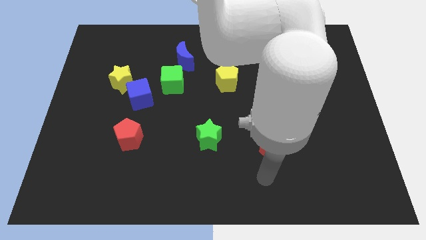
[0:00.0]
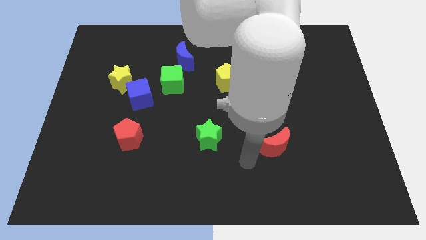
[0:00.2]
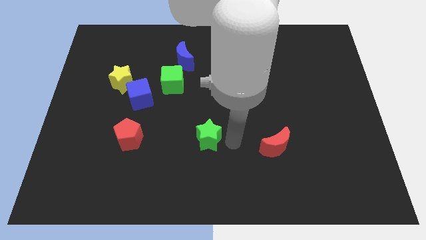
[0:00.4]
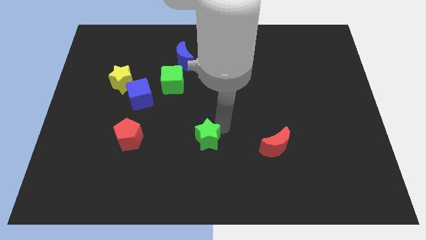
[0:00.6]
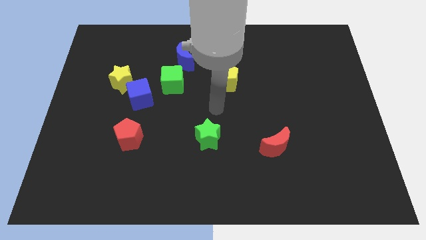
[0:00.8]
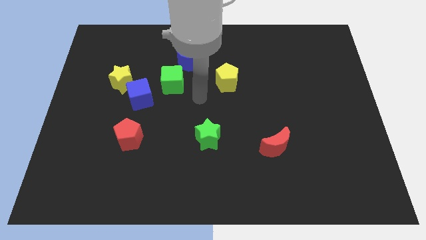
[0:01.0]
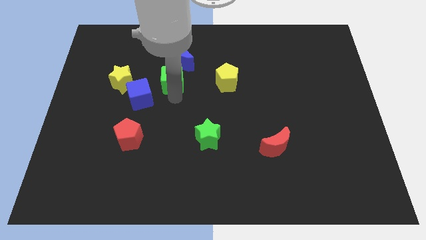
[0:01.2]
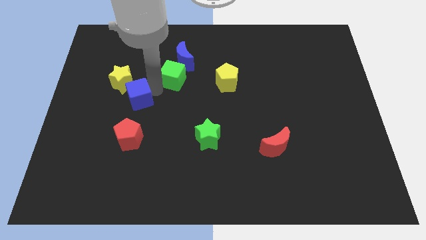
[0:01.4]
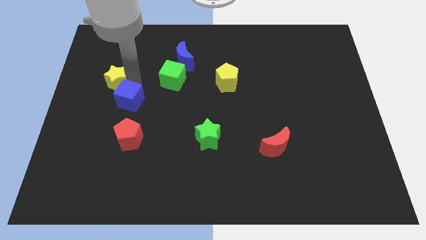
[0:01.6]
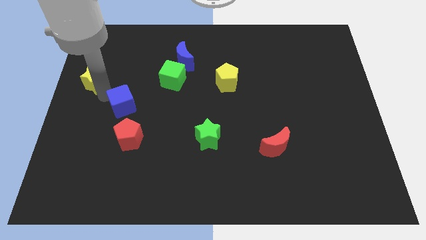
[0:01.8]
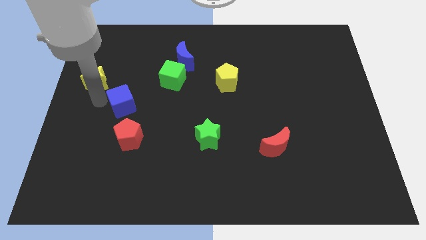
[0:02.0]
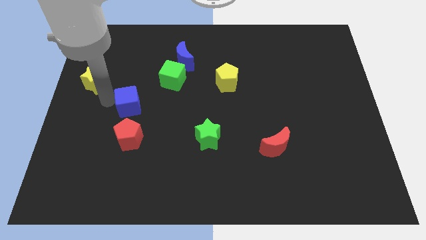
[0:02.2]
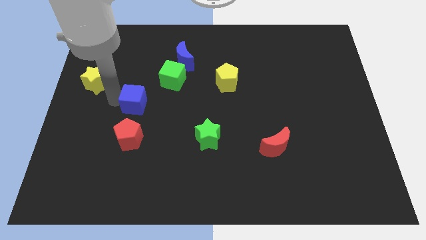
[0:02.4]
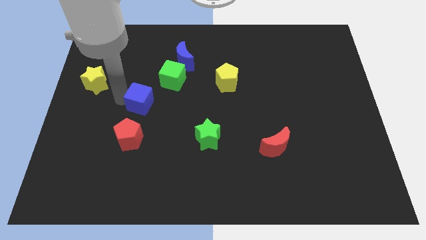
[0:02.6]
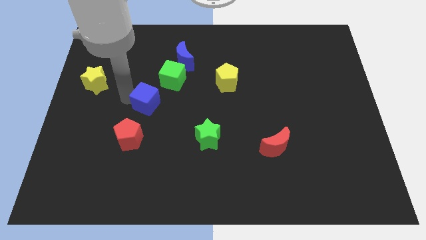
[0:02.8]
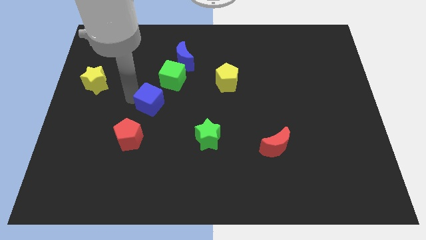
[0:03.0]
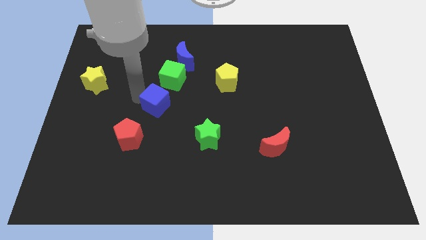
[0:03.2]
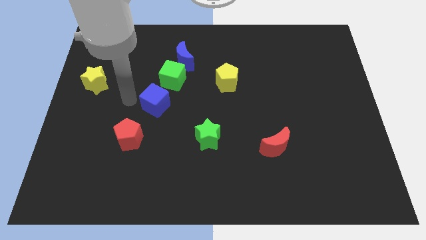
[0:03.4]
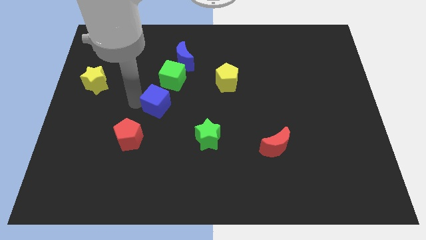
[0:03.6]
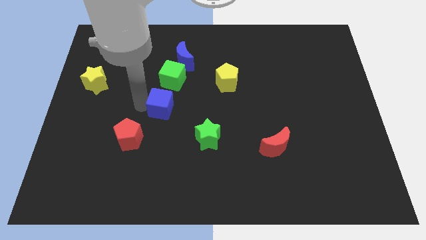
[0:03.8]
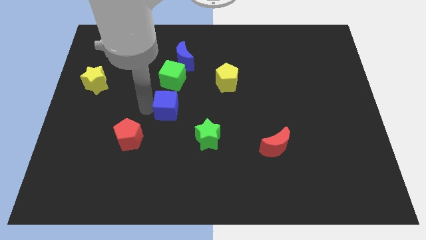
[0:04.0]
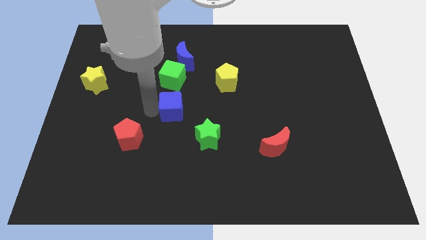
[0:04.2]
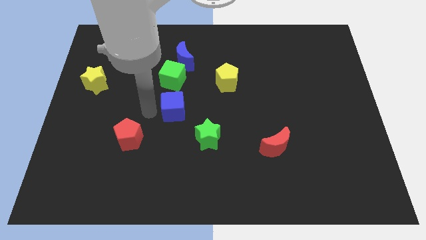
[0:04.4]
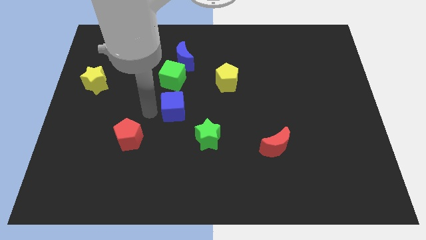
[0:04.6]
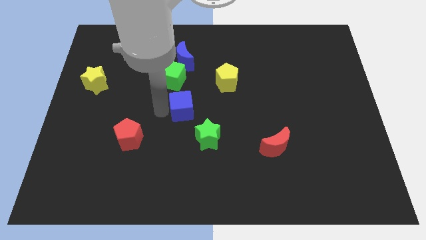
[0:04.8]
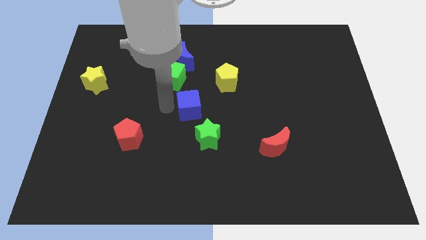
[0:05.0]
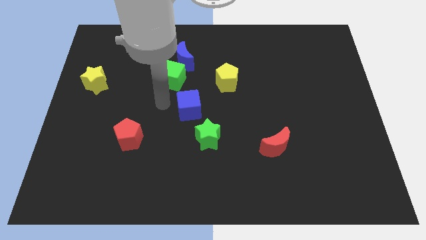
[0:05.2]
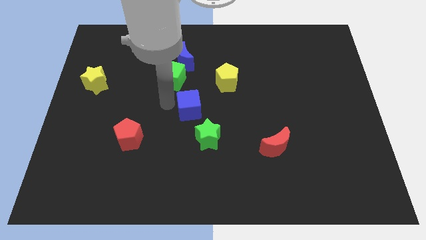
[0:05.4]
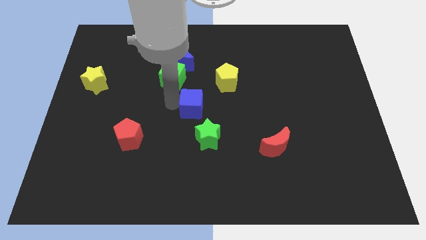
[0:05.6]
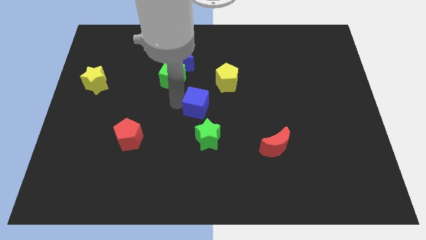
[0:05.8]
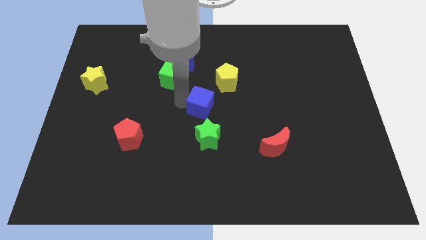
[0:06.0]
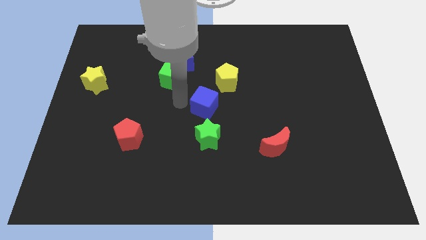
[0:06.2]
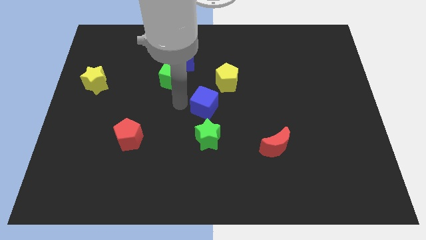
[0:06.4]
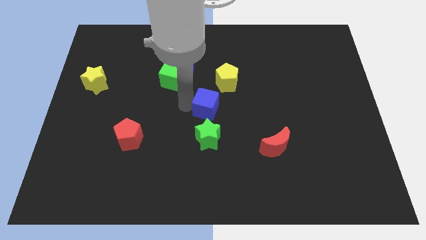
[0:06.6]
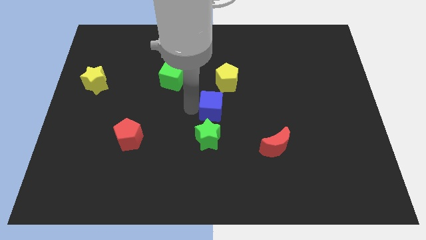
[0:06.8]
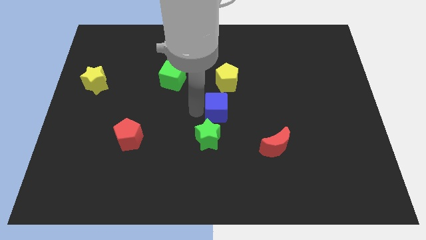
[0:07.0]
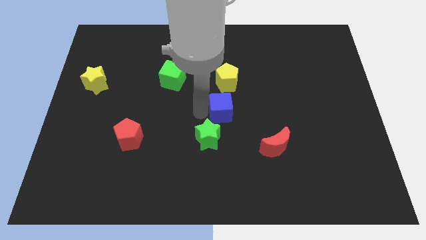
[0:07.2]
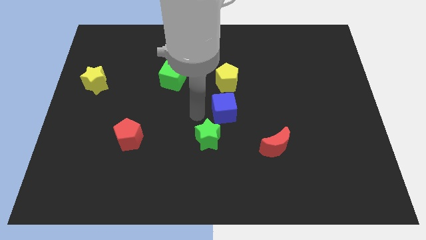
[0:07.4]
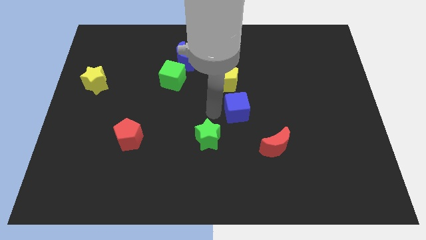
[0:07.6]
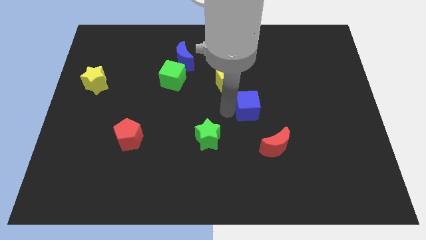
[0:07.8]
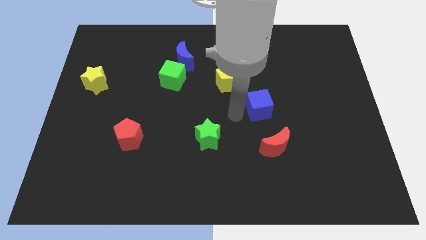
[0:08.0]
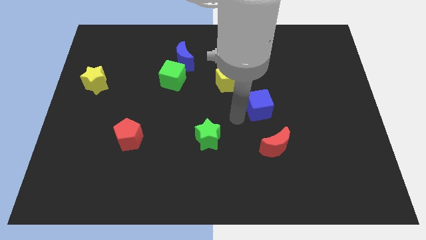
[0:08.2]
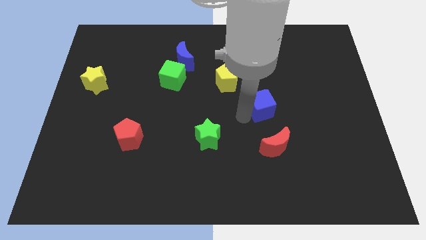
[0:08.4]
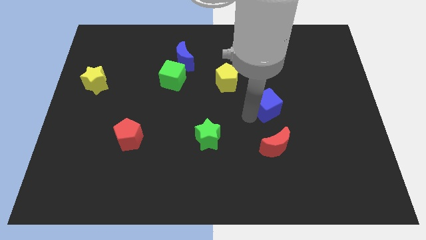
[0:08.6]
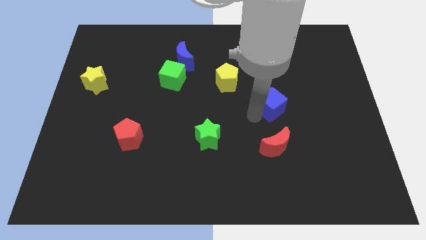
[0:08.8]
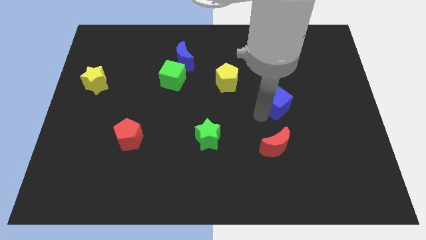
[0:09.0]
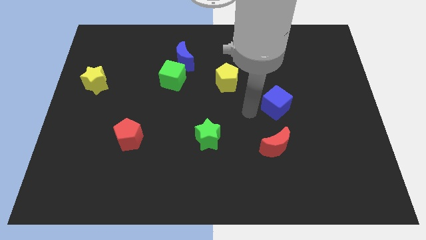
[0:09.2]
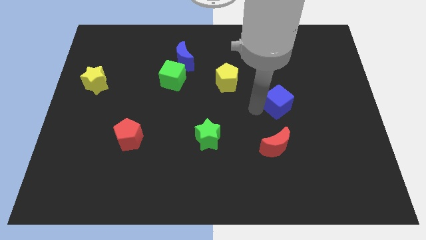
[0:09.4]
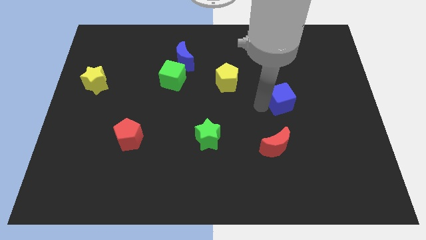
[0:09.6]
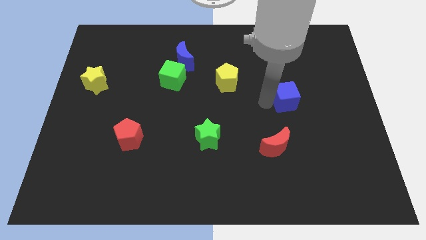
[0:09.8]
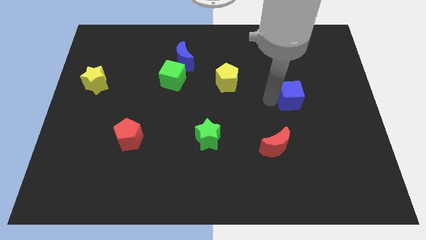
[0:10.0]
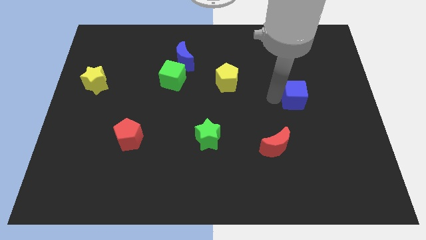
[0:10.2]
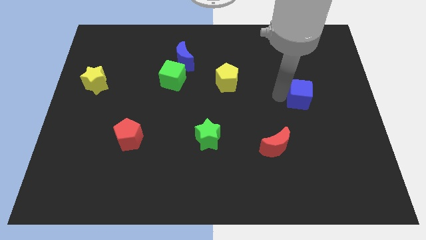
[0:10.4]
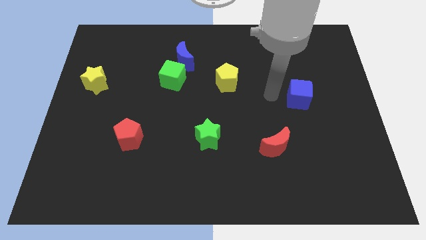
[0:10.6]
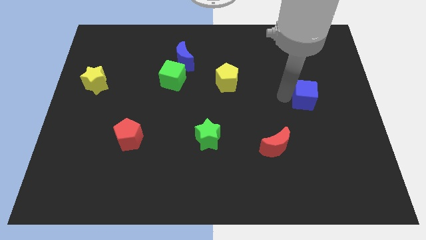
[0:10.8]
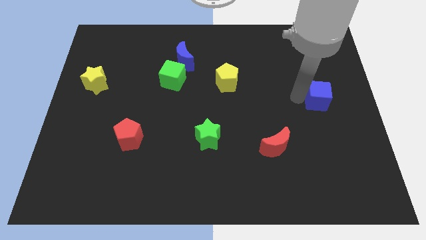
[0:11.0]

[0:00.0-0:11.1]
move the blue cube to the right side of the board

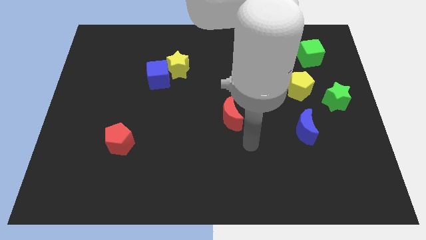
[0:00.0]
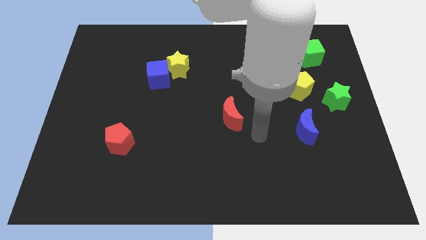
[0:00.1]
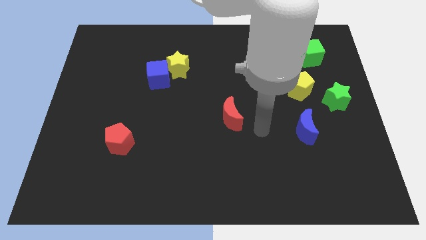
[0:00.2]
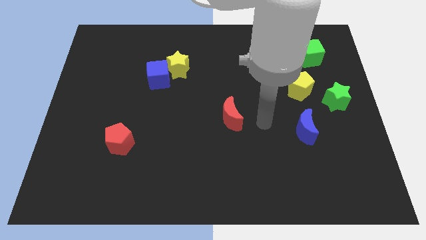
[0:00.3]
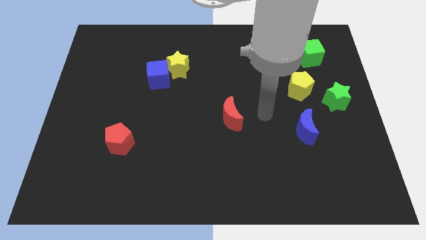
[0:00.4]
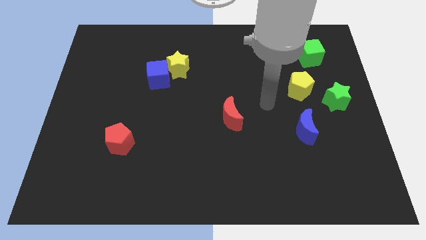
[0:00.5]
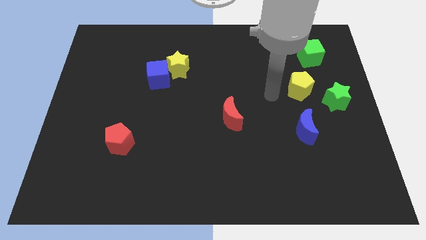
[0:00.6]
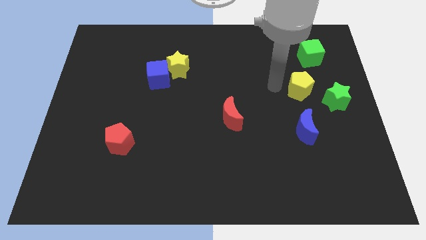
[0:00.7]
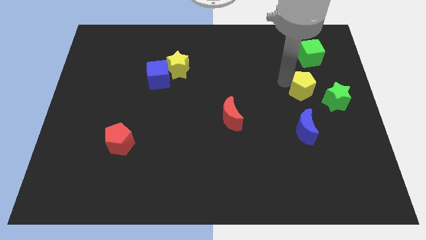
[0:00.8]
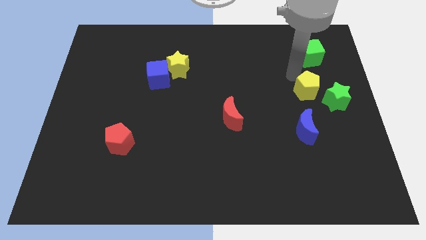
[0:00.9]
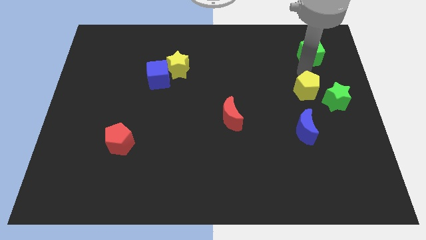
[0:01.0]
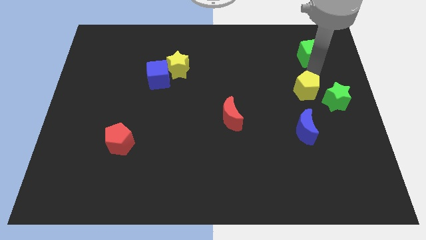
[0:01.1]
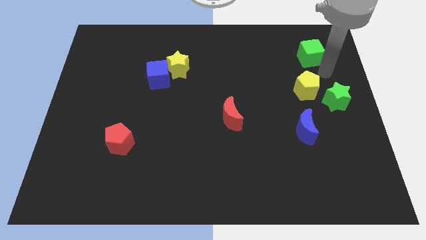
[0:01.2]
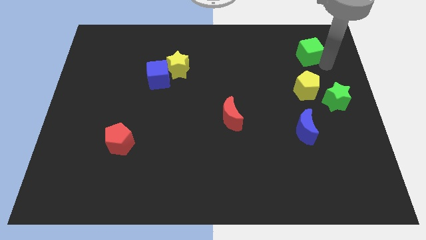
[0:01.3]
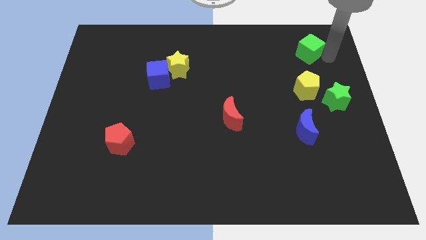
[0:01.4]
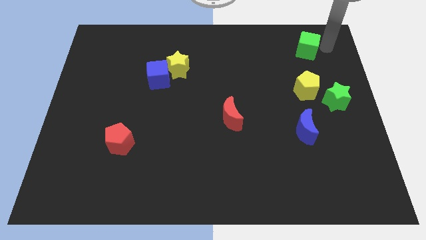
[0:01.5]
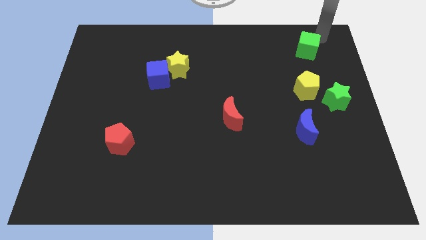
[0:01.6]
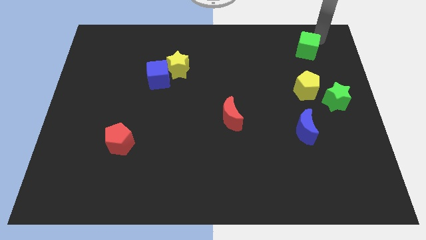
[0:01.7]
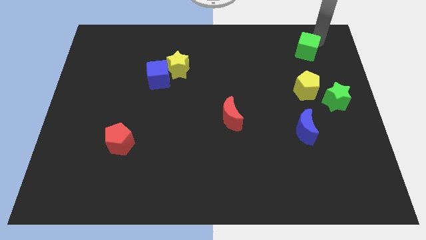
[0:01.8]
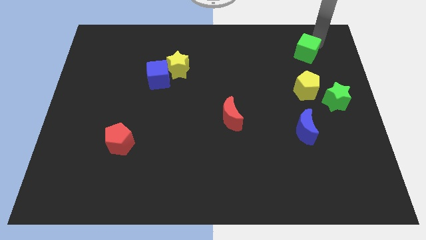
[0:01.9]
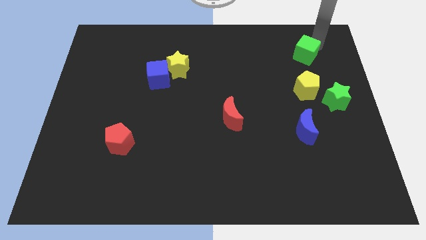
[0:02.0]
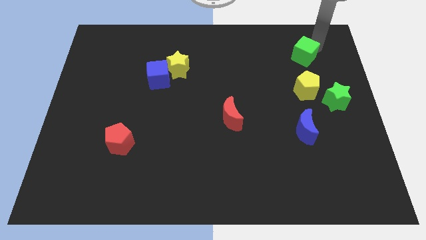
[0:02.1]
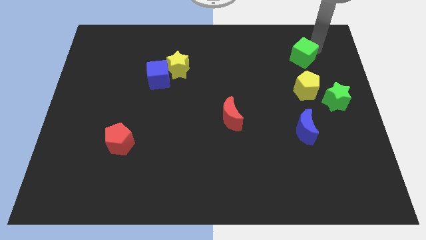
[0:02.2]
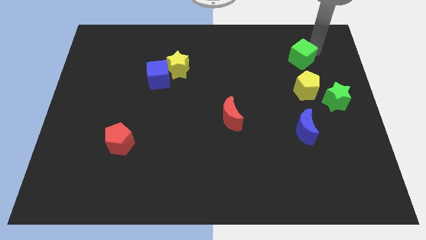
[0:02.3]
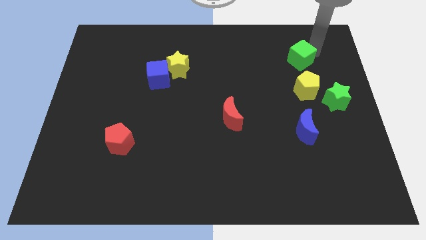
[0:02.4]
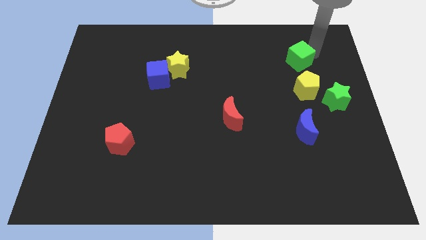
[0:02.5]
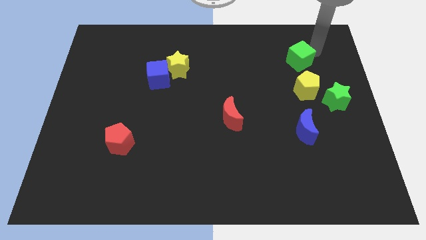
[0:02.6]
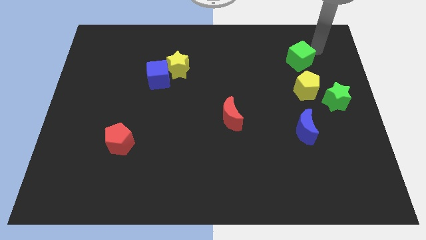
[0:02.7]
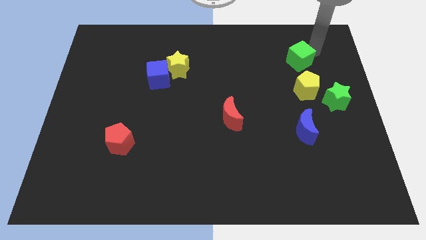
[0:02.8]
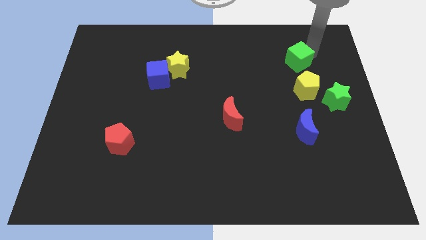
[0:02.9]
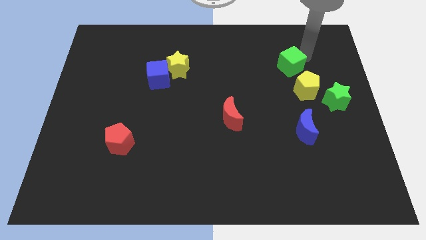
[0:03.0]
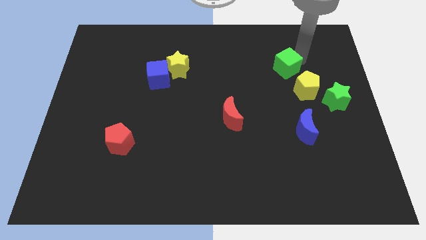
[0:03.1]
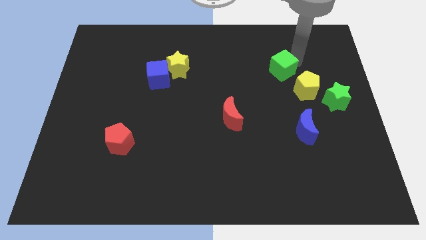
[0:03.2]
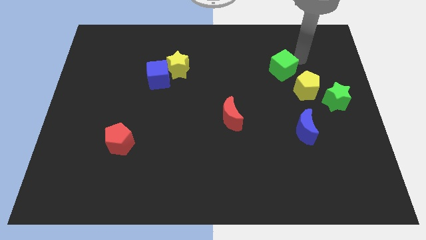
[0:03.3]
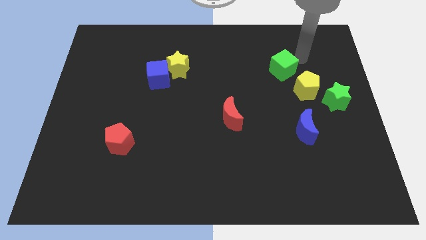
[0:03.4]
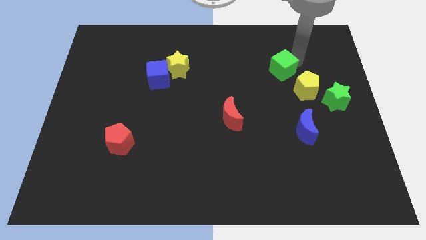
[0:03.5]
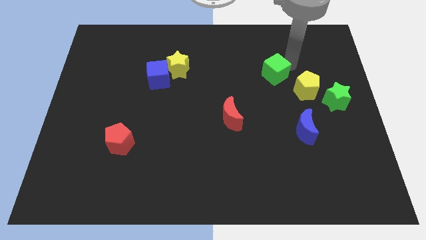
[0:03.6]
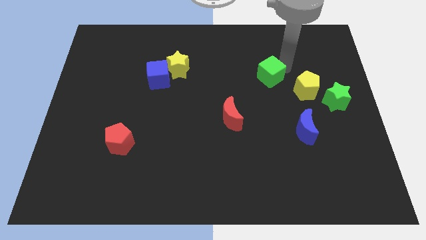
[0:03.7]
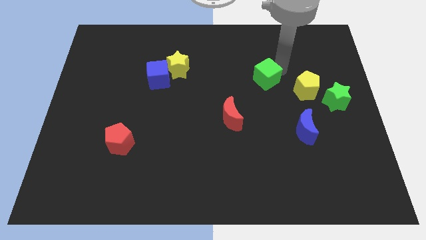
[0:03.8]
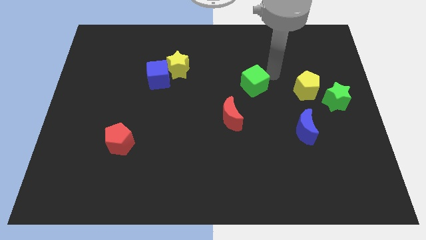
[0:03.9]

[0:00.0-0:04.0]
move the green cube to the middle of the board
